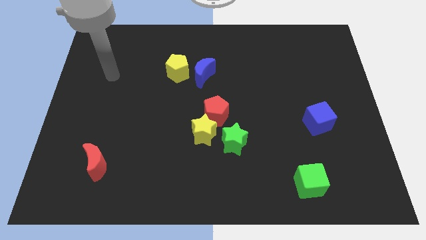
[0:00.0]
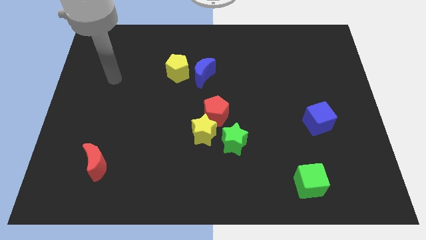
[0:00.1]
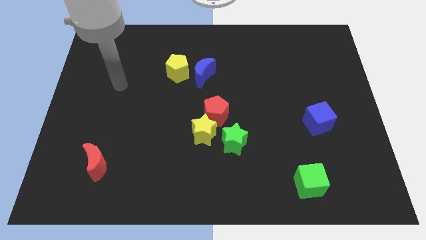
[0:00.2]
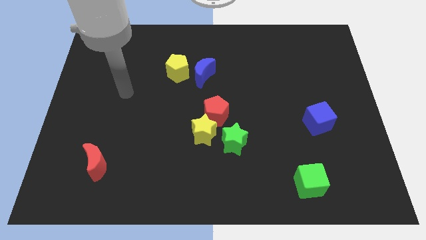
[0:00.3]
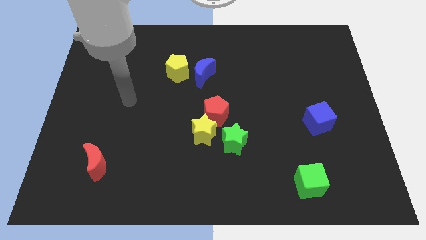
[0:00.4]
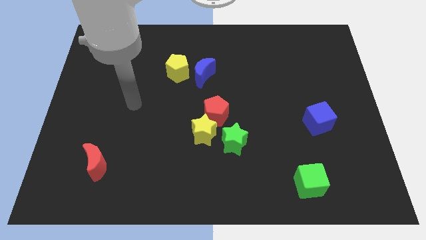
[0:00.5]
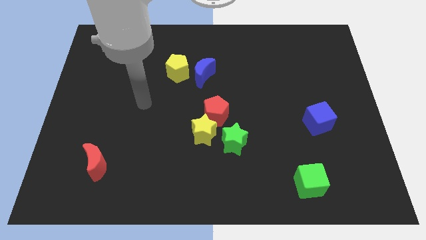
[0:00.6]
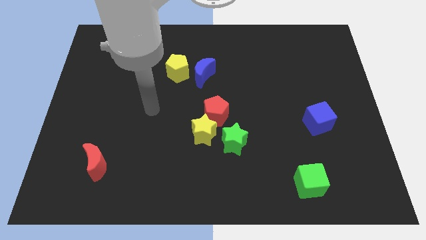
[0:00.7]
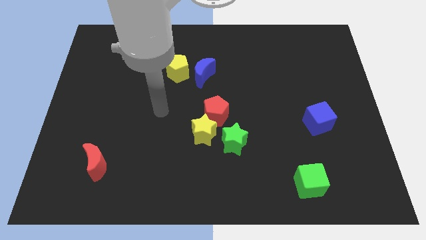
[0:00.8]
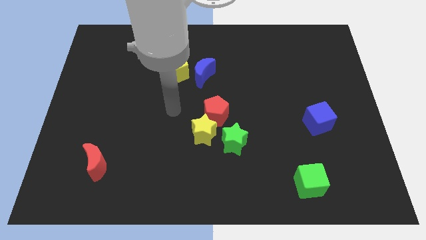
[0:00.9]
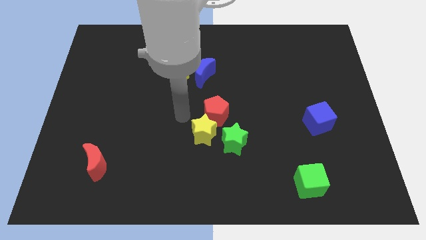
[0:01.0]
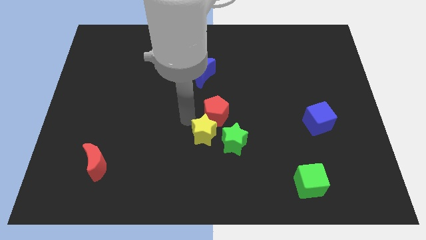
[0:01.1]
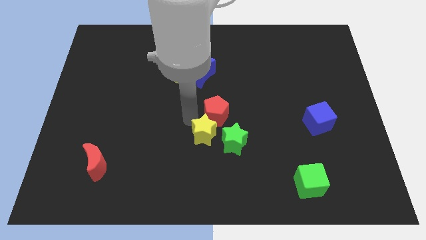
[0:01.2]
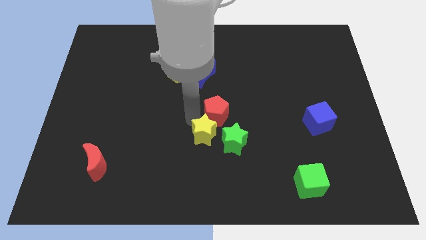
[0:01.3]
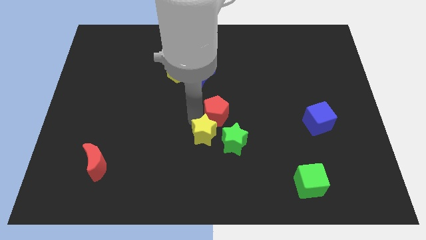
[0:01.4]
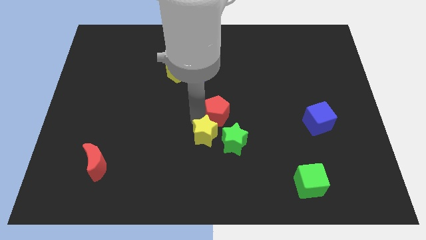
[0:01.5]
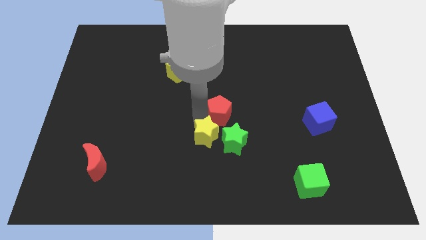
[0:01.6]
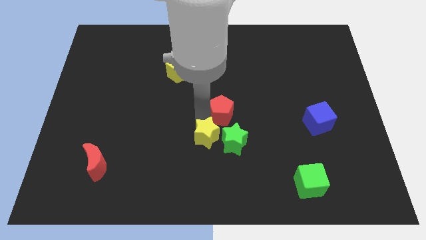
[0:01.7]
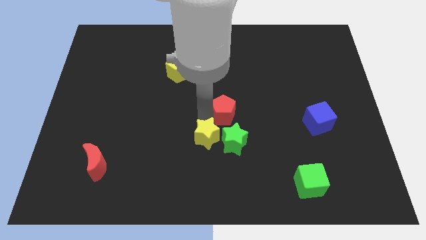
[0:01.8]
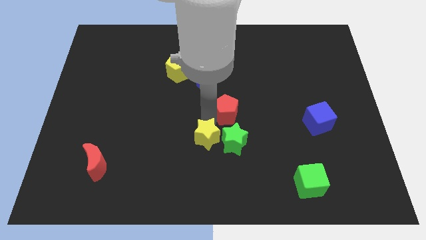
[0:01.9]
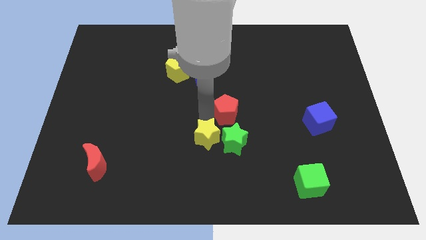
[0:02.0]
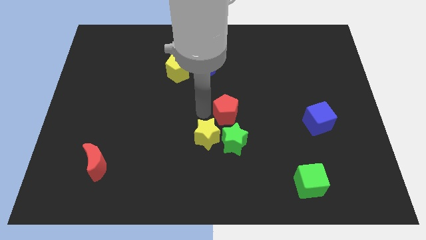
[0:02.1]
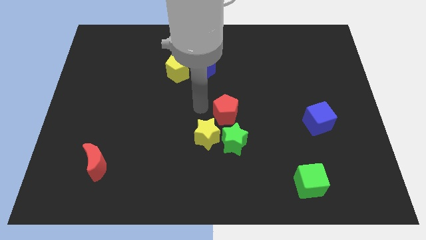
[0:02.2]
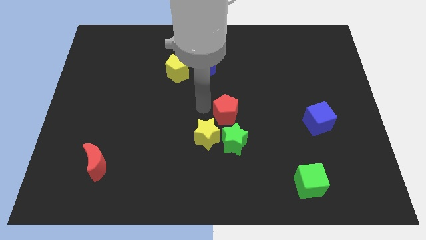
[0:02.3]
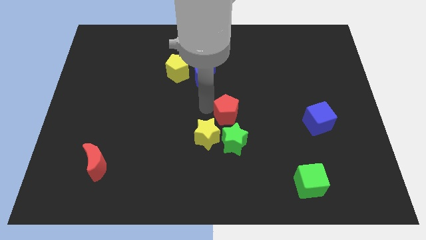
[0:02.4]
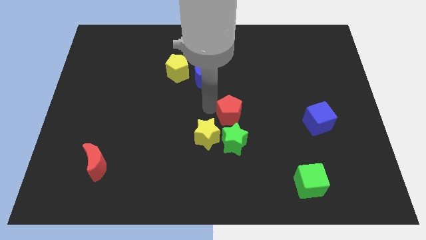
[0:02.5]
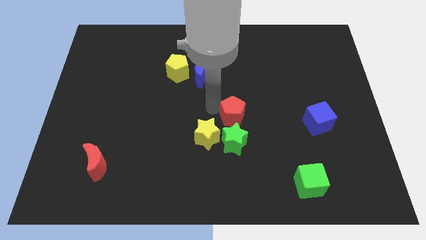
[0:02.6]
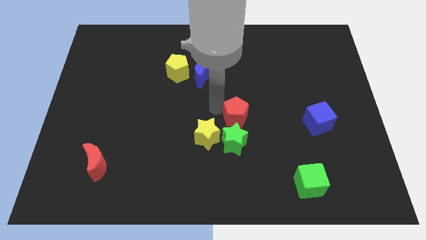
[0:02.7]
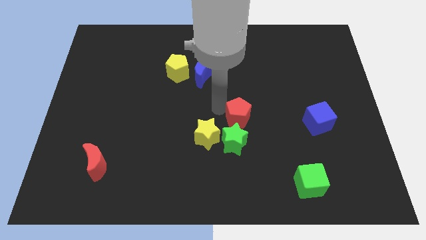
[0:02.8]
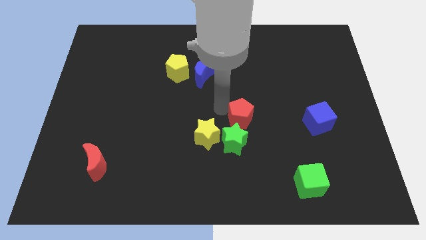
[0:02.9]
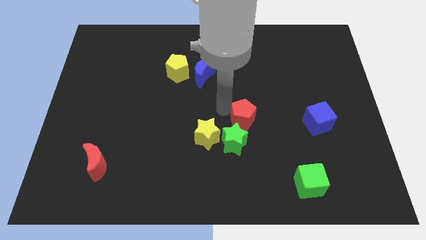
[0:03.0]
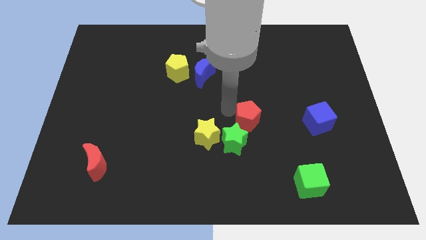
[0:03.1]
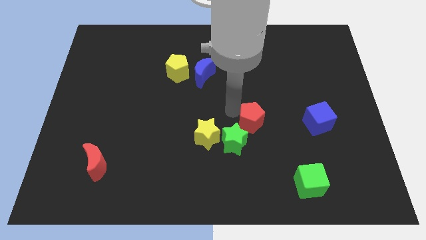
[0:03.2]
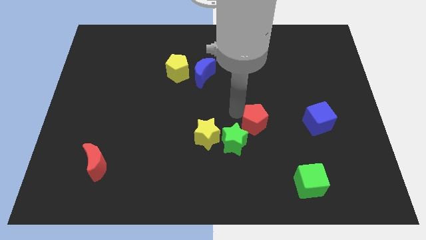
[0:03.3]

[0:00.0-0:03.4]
slightly move the red pentagon diagonally downwards and to the right

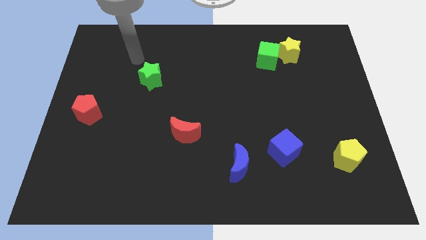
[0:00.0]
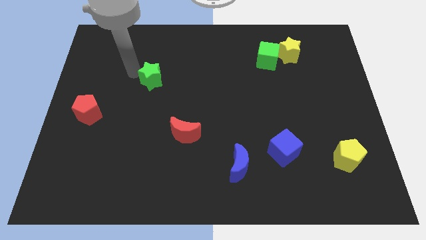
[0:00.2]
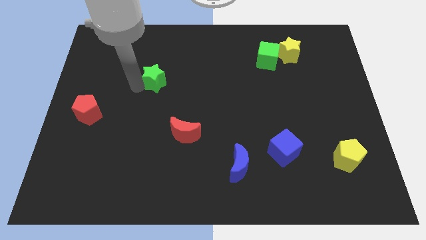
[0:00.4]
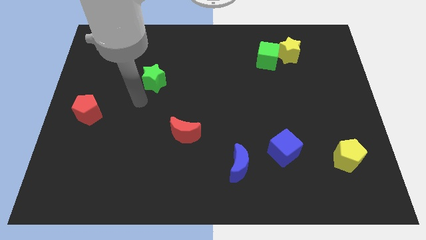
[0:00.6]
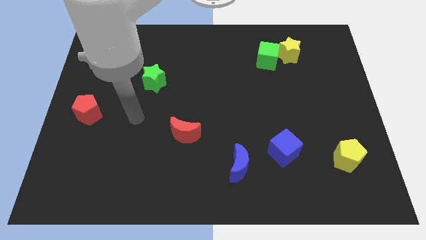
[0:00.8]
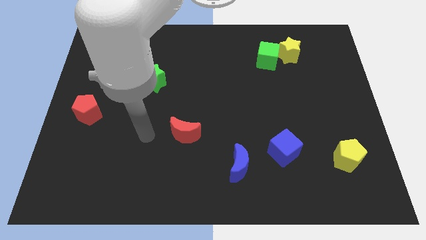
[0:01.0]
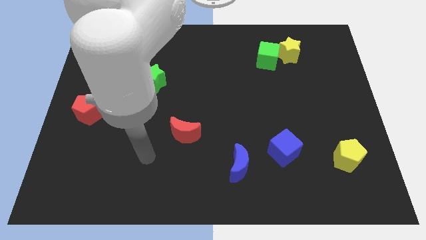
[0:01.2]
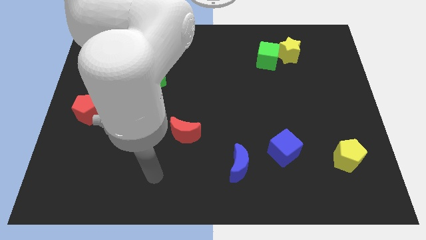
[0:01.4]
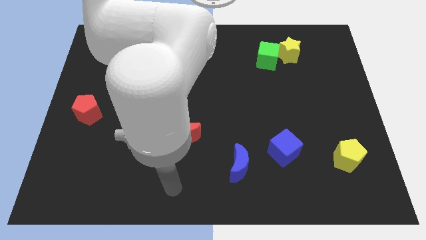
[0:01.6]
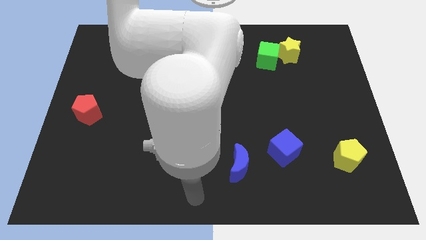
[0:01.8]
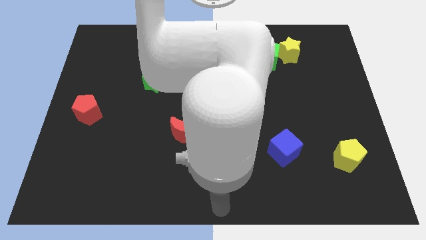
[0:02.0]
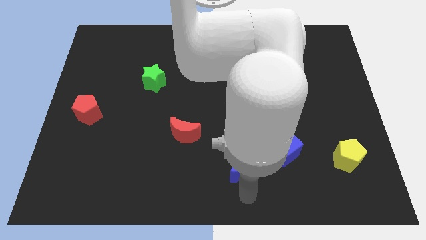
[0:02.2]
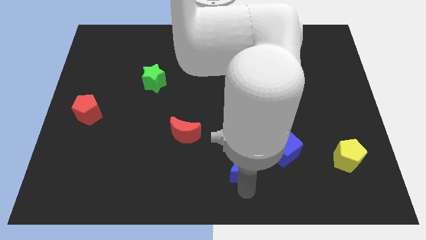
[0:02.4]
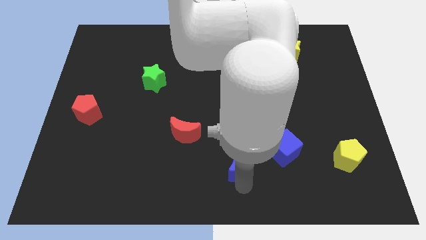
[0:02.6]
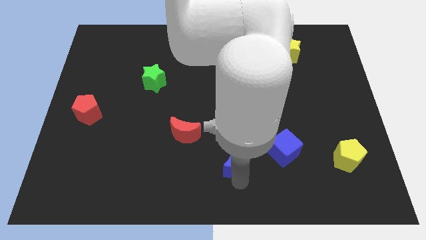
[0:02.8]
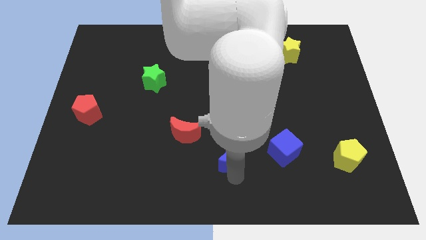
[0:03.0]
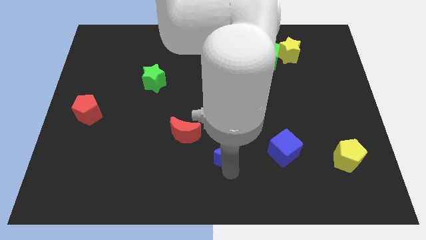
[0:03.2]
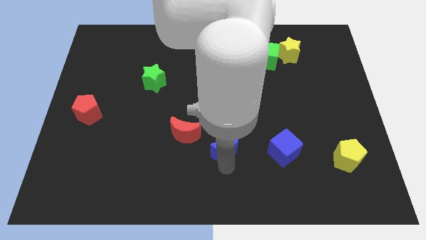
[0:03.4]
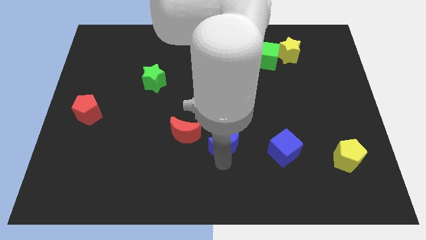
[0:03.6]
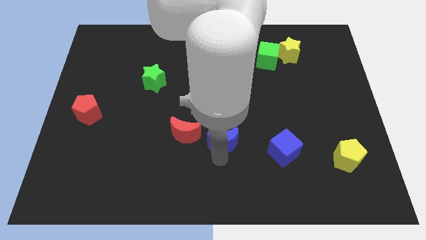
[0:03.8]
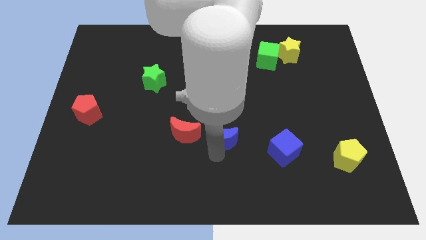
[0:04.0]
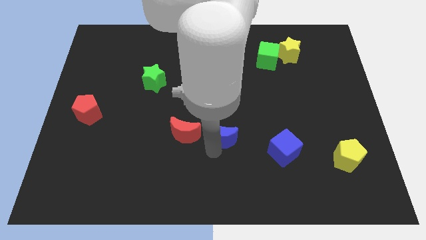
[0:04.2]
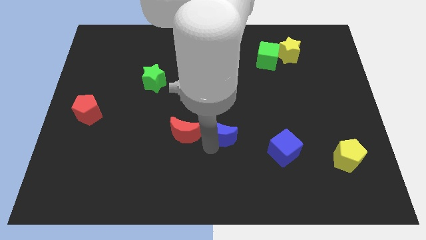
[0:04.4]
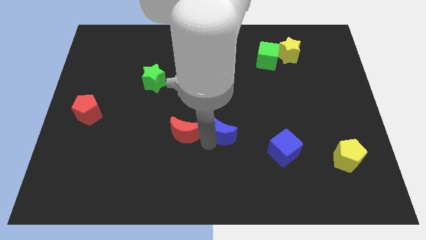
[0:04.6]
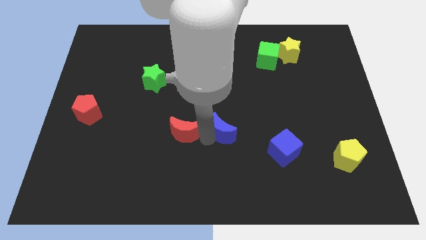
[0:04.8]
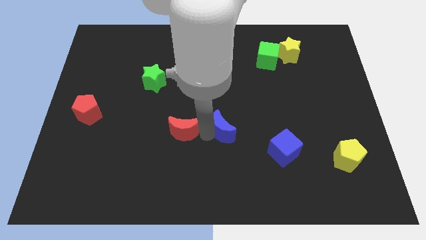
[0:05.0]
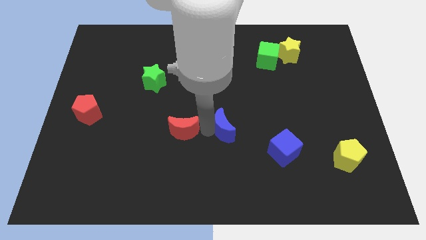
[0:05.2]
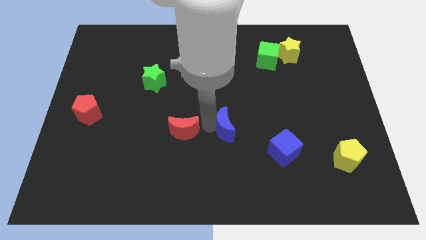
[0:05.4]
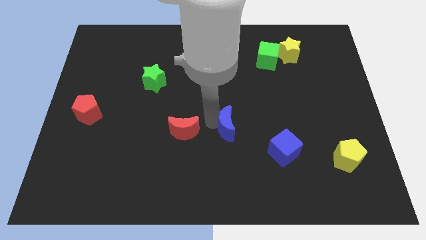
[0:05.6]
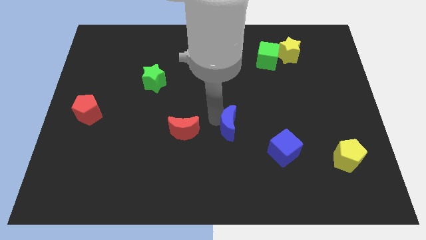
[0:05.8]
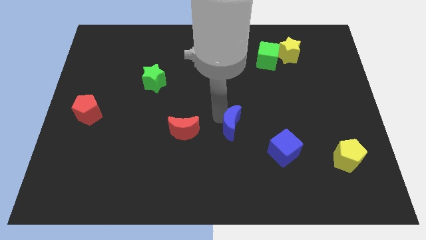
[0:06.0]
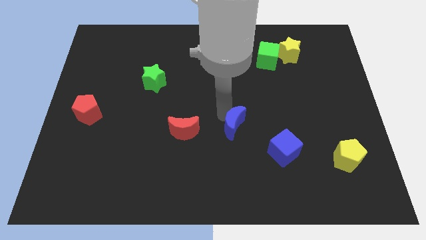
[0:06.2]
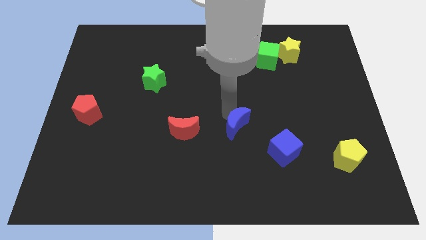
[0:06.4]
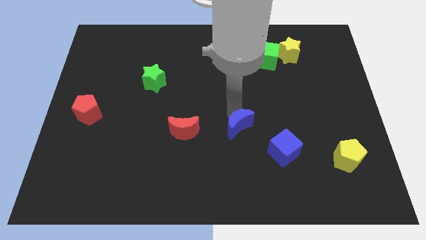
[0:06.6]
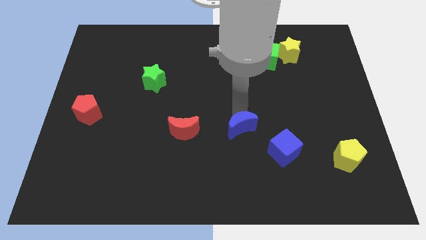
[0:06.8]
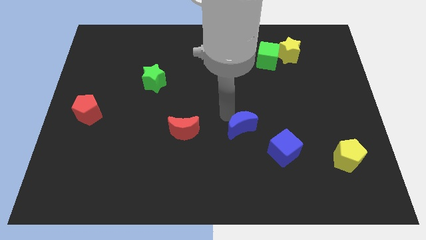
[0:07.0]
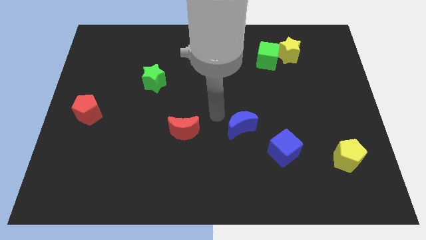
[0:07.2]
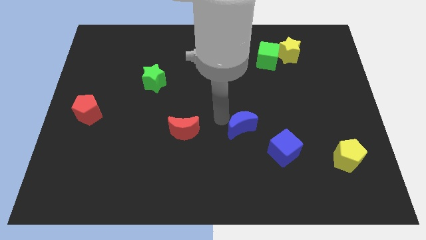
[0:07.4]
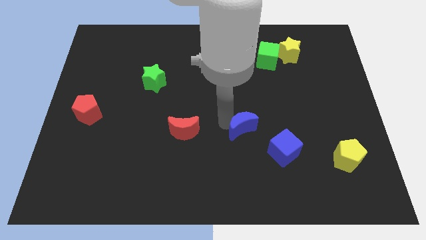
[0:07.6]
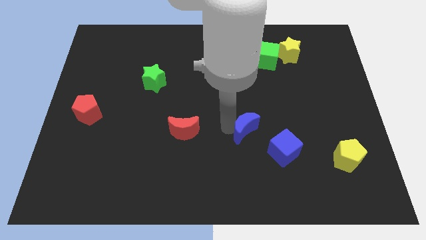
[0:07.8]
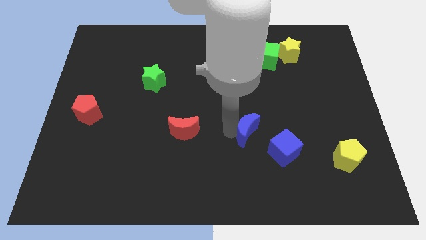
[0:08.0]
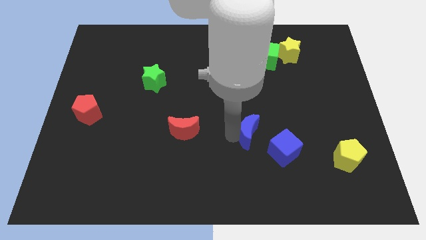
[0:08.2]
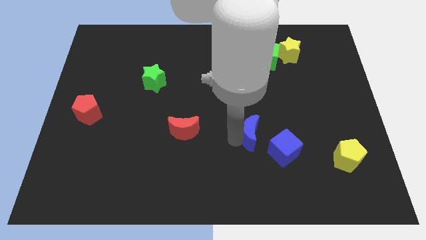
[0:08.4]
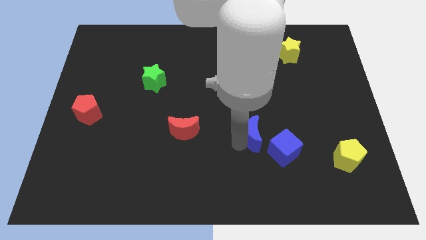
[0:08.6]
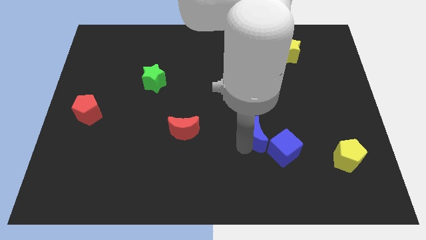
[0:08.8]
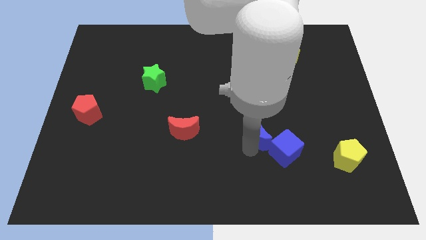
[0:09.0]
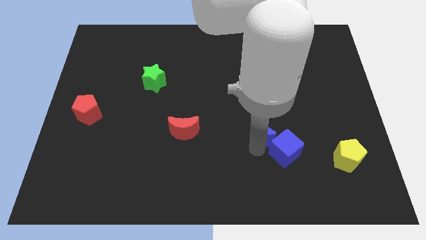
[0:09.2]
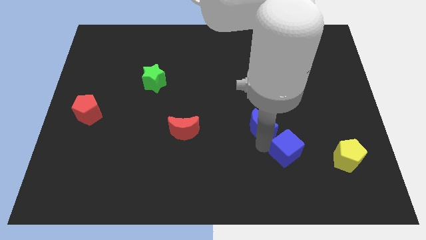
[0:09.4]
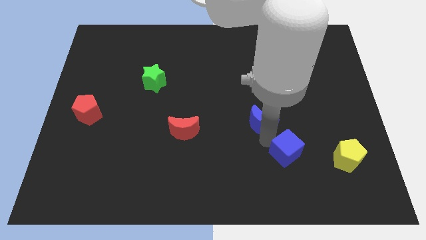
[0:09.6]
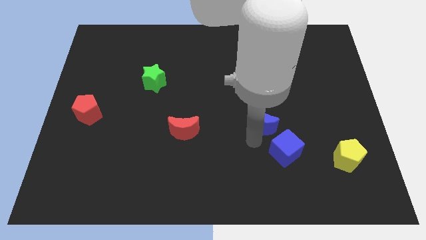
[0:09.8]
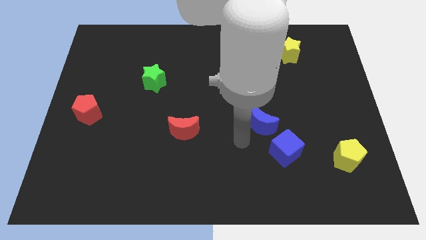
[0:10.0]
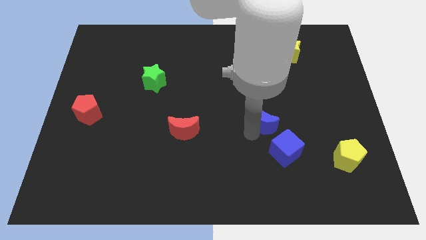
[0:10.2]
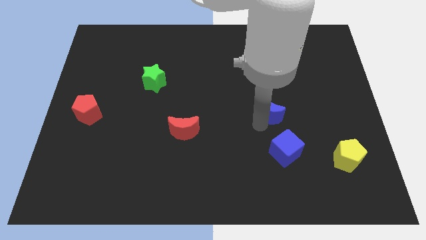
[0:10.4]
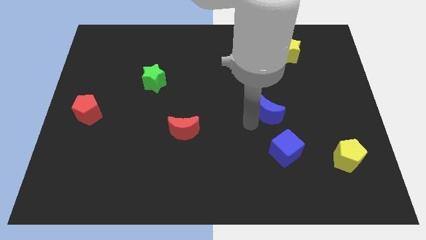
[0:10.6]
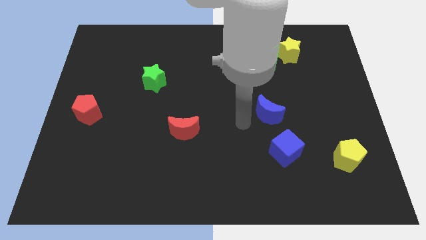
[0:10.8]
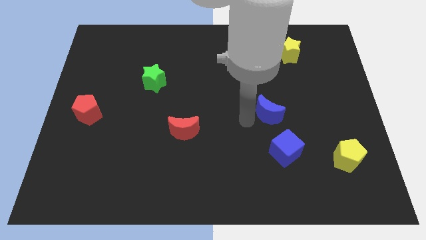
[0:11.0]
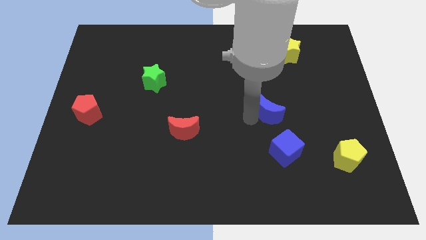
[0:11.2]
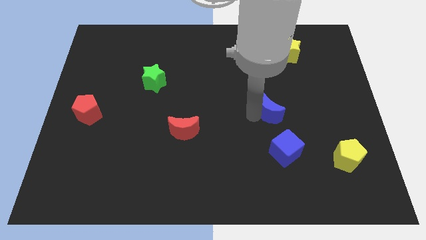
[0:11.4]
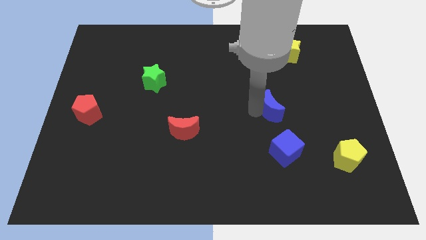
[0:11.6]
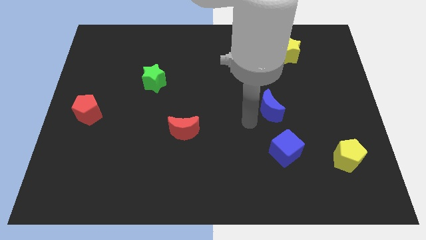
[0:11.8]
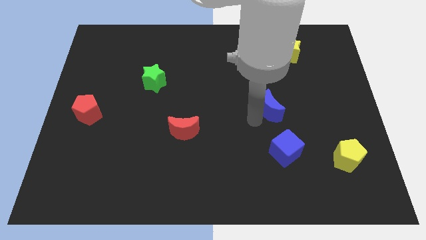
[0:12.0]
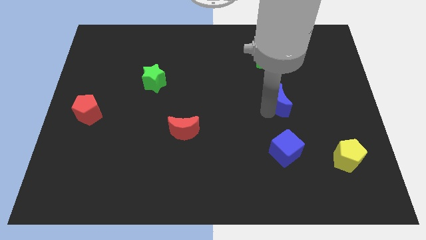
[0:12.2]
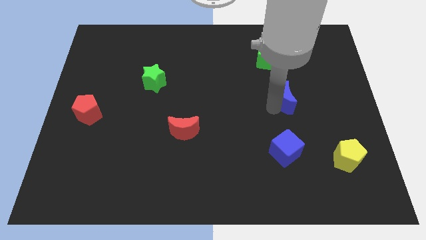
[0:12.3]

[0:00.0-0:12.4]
move the blue moon up and to the right
